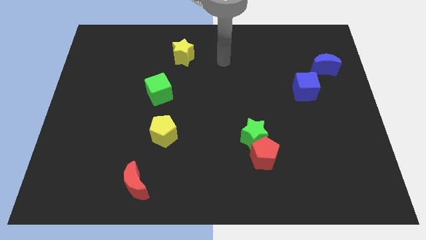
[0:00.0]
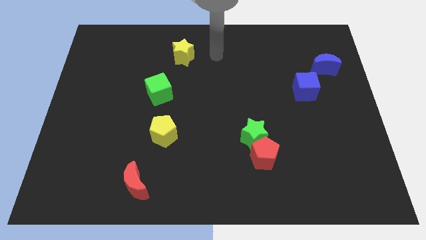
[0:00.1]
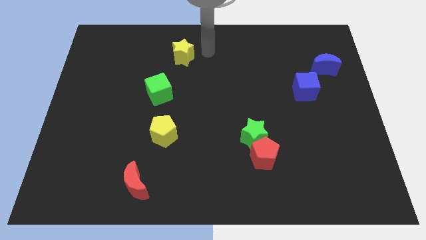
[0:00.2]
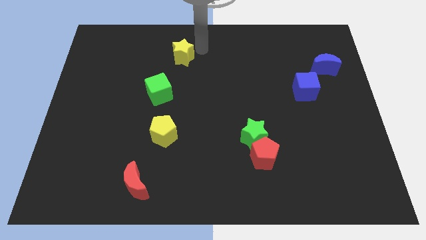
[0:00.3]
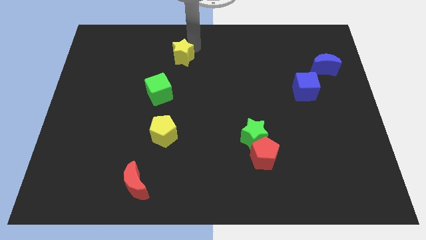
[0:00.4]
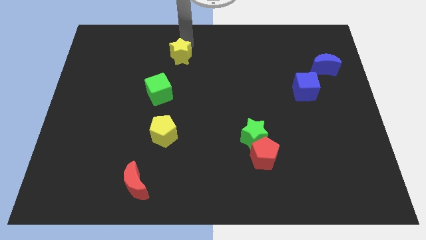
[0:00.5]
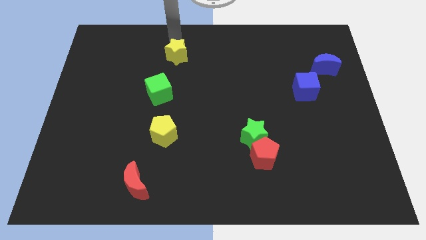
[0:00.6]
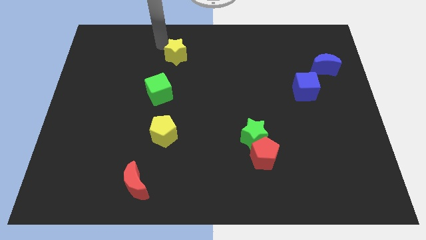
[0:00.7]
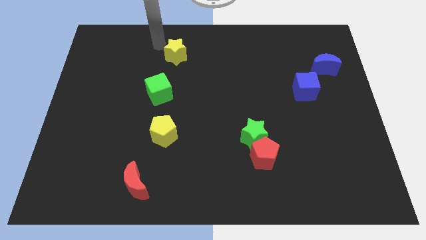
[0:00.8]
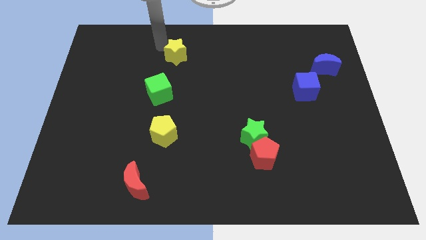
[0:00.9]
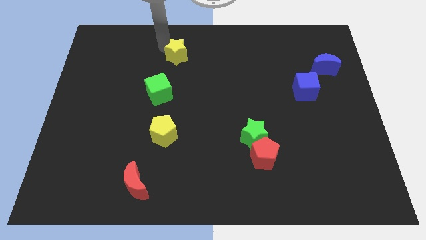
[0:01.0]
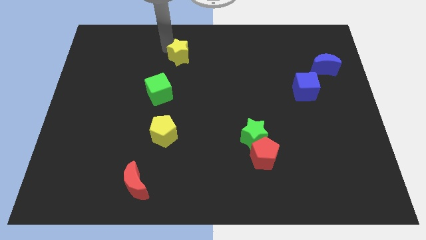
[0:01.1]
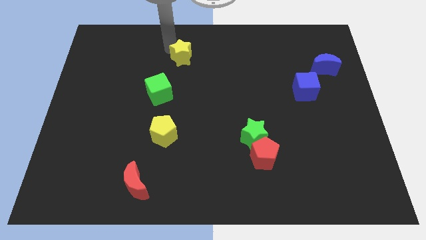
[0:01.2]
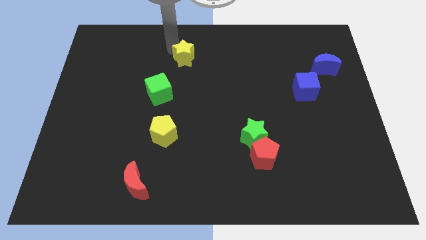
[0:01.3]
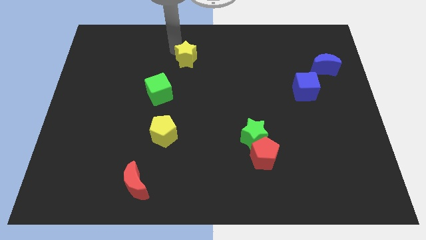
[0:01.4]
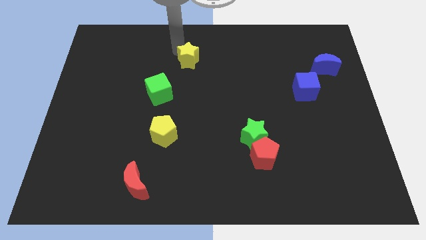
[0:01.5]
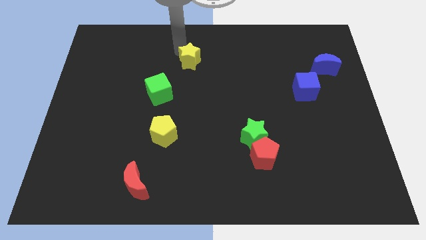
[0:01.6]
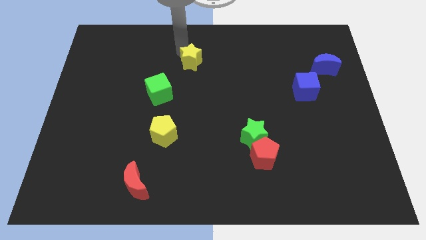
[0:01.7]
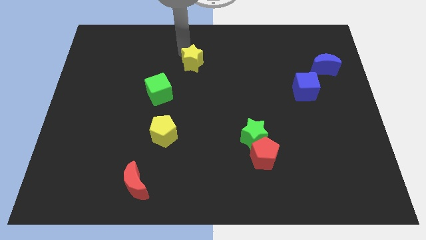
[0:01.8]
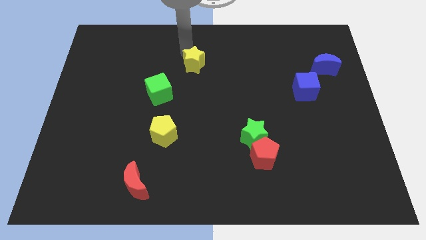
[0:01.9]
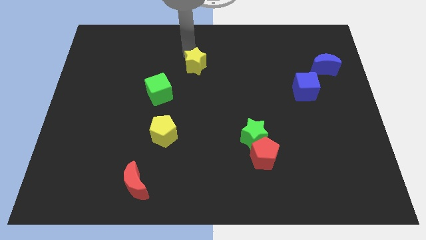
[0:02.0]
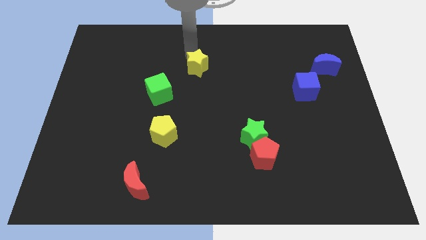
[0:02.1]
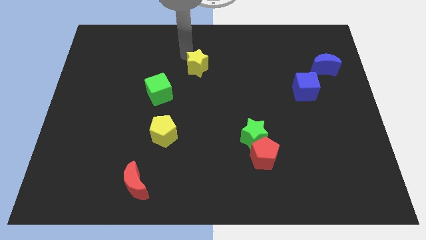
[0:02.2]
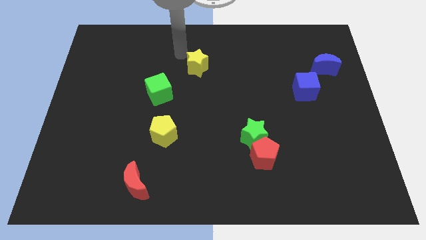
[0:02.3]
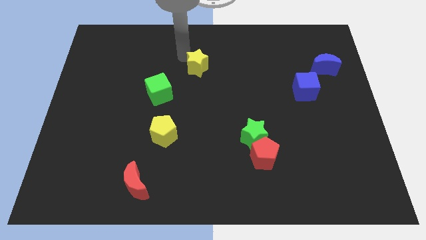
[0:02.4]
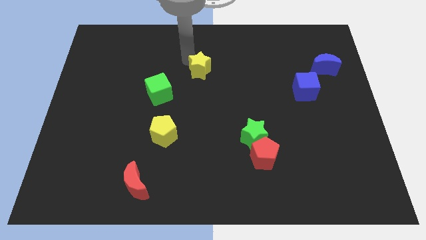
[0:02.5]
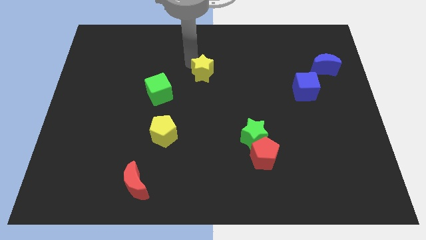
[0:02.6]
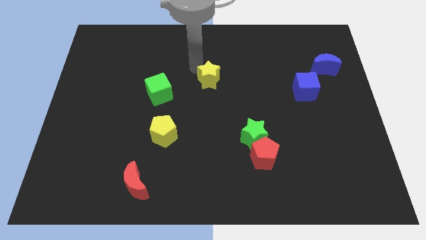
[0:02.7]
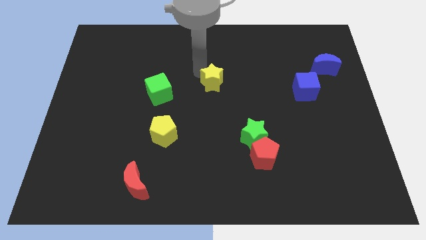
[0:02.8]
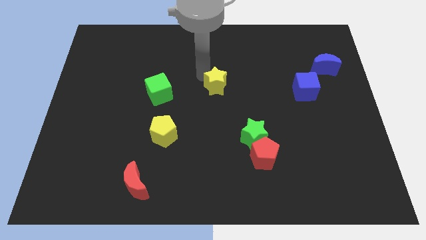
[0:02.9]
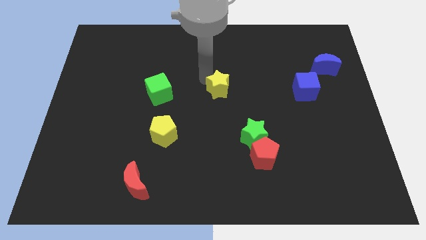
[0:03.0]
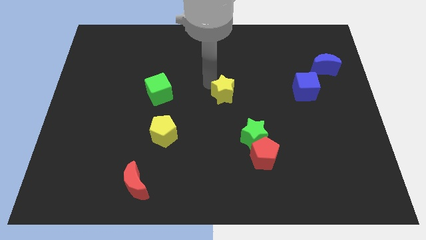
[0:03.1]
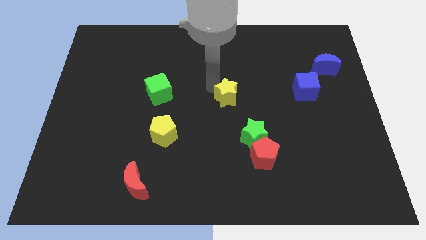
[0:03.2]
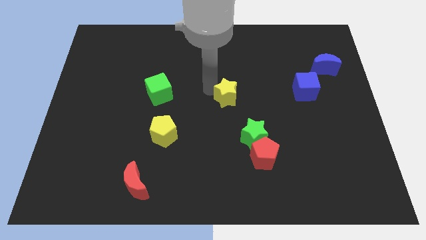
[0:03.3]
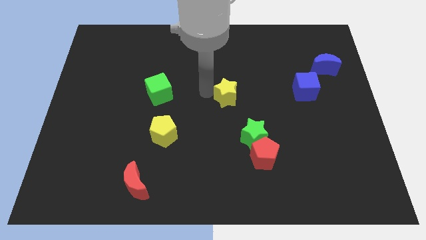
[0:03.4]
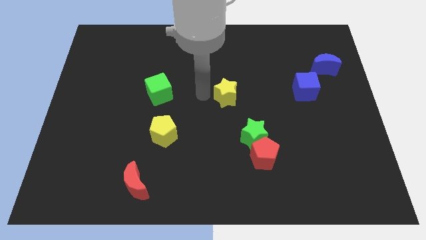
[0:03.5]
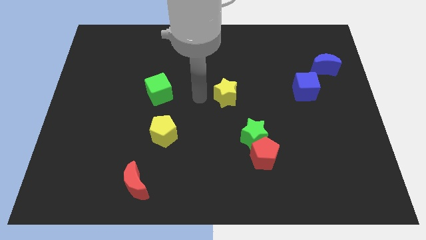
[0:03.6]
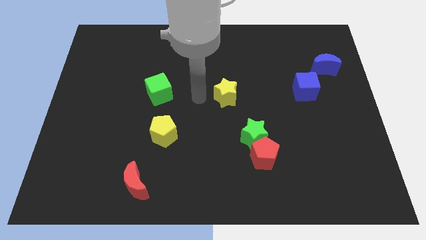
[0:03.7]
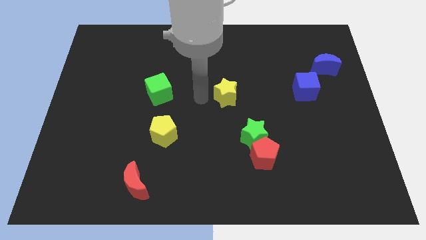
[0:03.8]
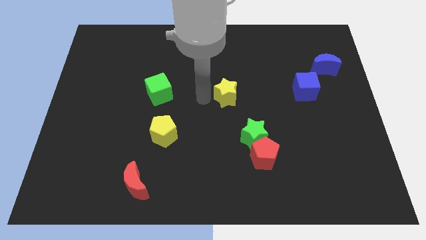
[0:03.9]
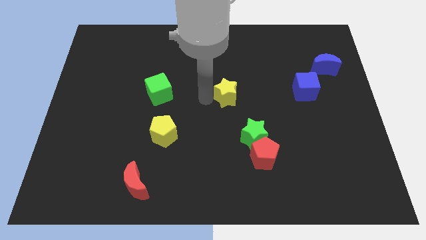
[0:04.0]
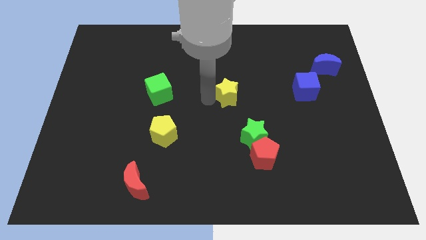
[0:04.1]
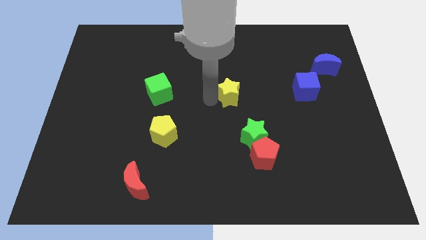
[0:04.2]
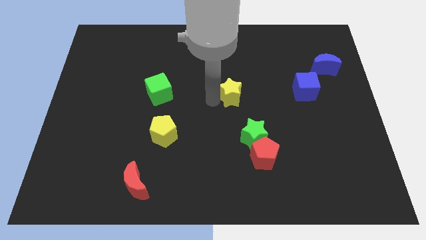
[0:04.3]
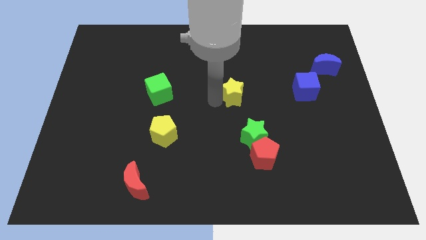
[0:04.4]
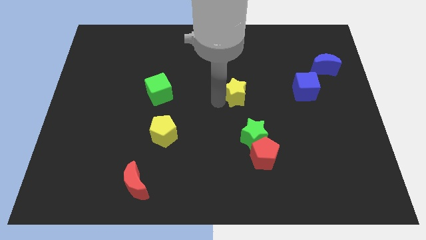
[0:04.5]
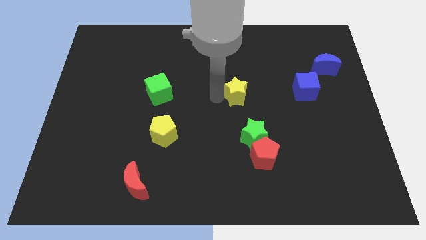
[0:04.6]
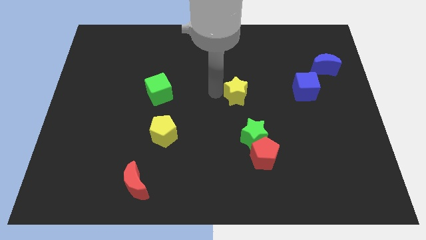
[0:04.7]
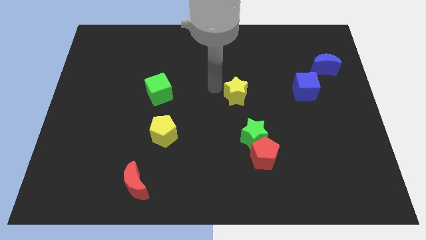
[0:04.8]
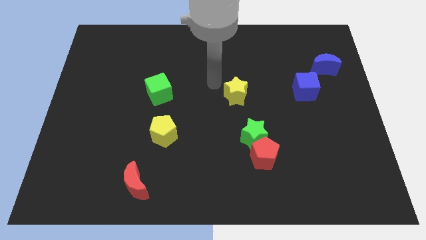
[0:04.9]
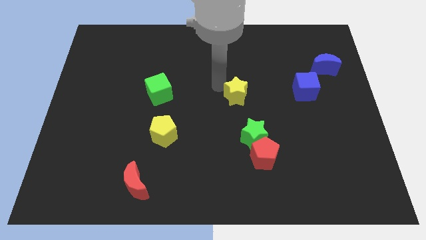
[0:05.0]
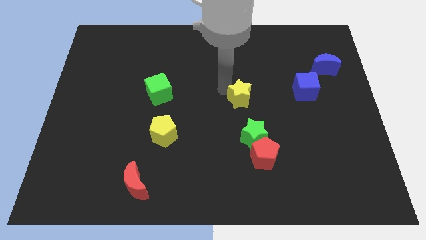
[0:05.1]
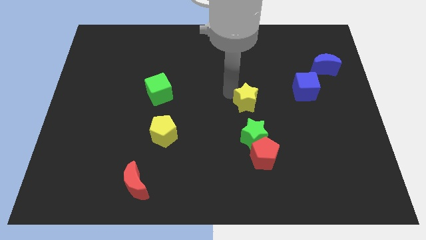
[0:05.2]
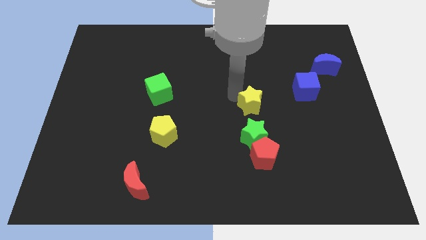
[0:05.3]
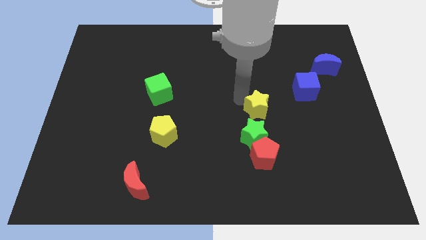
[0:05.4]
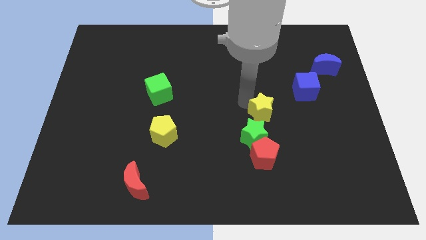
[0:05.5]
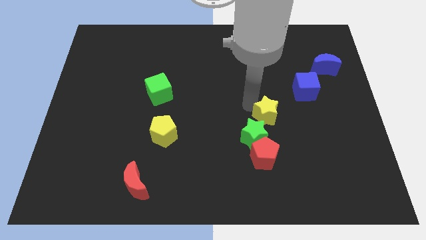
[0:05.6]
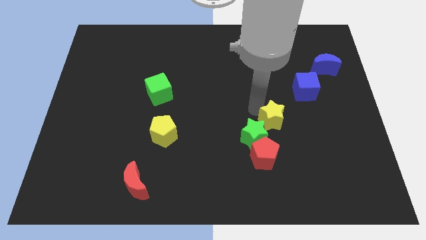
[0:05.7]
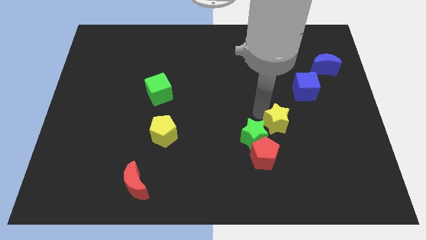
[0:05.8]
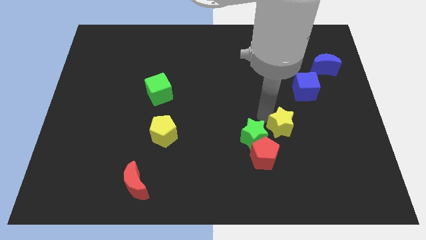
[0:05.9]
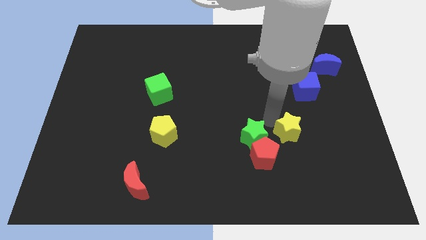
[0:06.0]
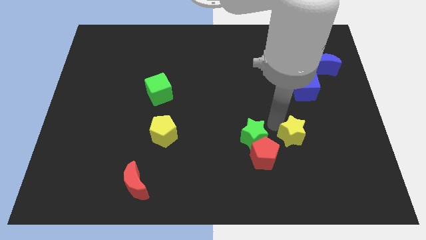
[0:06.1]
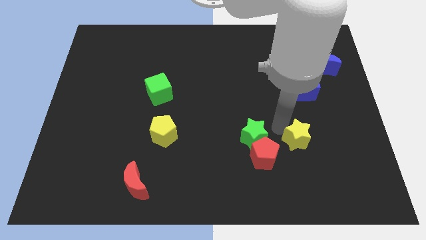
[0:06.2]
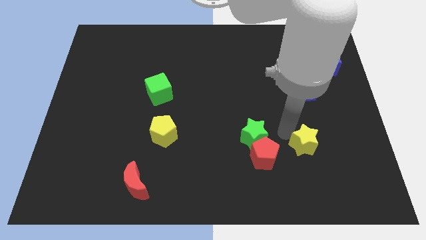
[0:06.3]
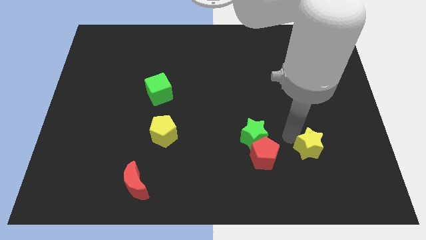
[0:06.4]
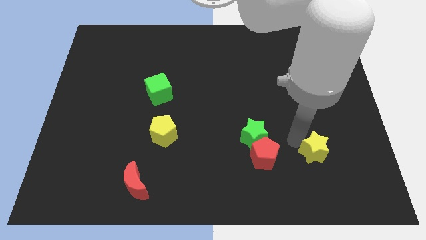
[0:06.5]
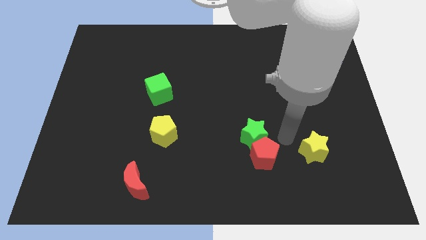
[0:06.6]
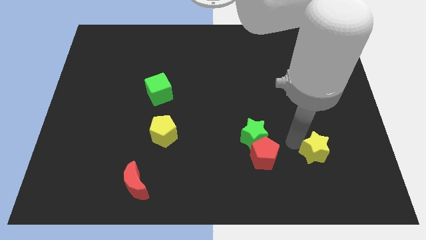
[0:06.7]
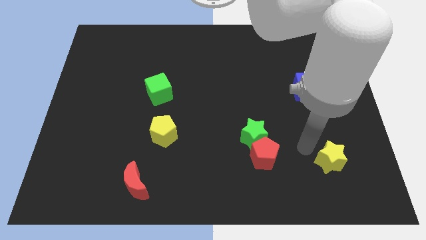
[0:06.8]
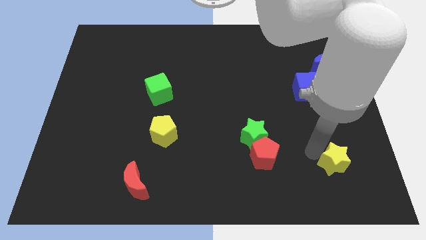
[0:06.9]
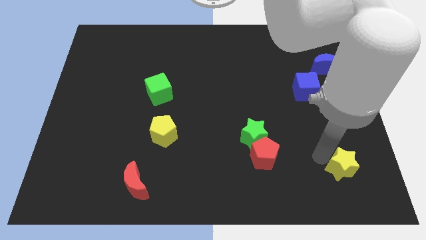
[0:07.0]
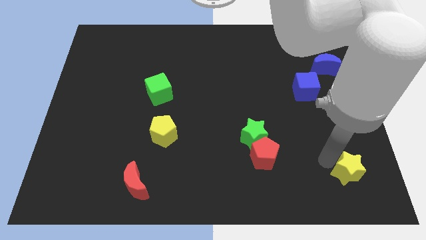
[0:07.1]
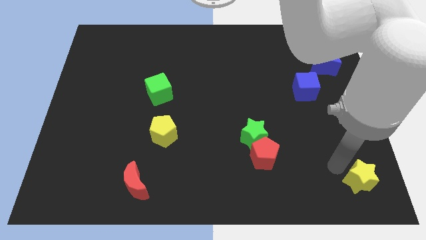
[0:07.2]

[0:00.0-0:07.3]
move the yellow star to the lower right corner
